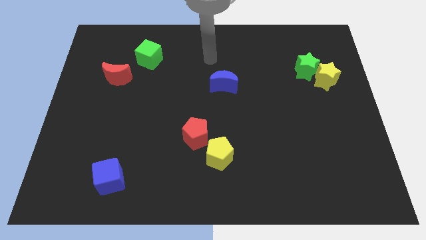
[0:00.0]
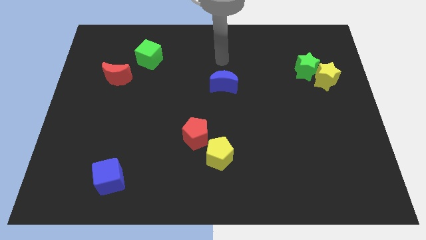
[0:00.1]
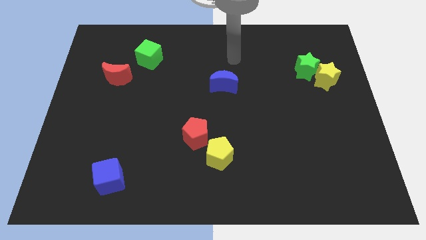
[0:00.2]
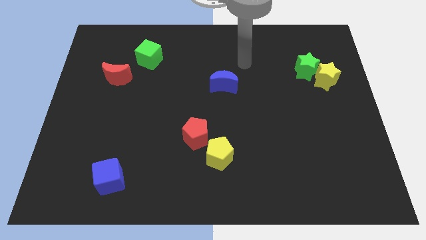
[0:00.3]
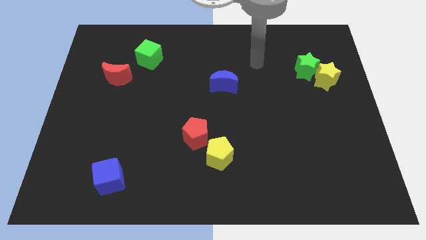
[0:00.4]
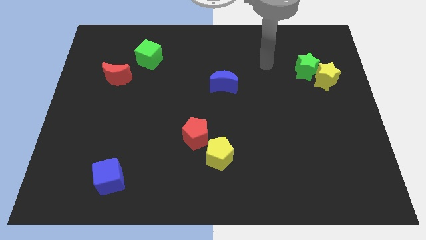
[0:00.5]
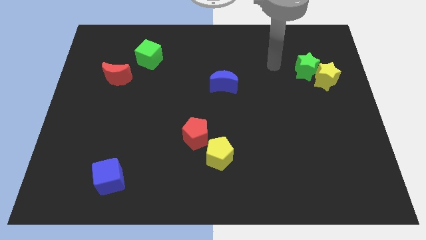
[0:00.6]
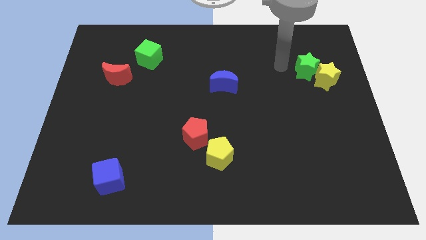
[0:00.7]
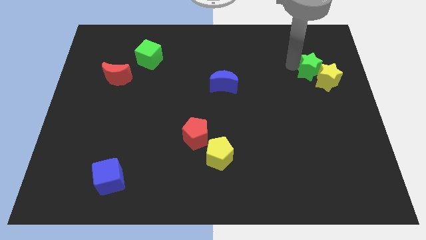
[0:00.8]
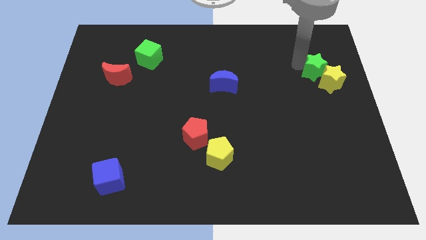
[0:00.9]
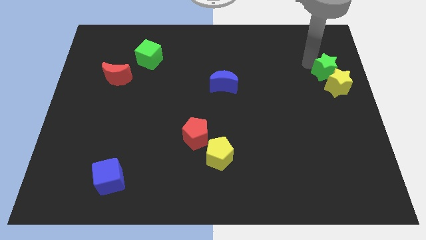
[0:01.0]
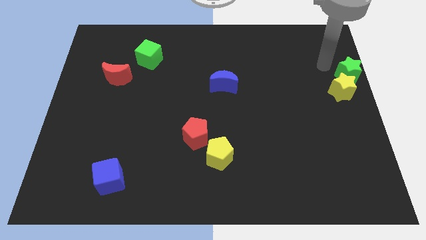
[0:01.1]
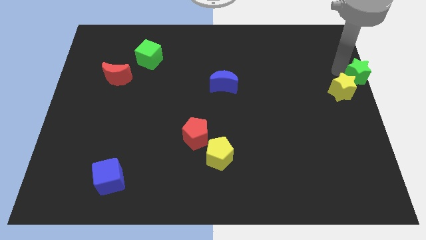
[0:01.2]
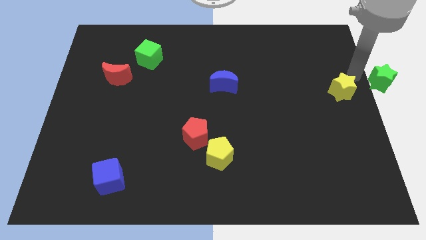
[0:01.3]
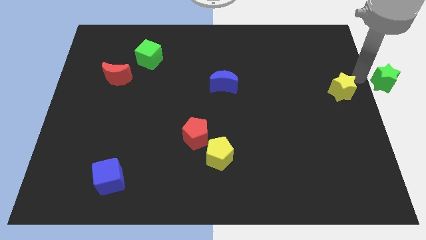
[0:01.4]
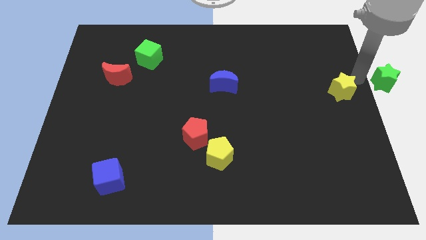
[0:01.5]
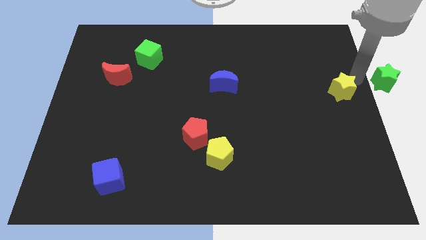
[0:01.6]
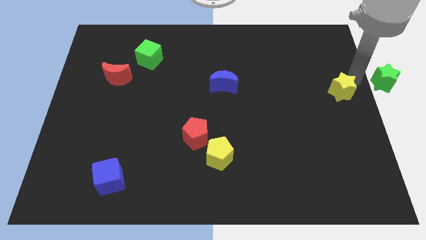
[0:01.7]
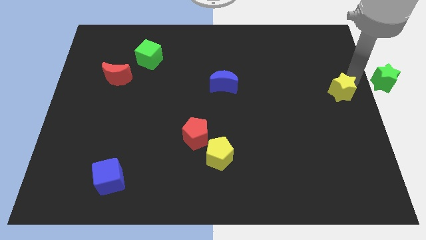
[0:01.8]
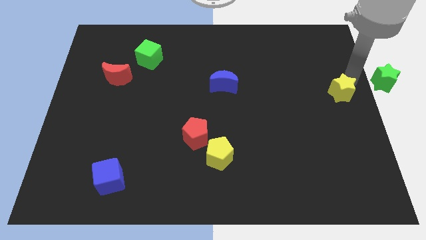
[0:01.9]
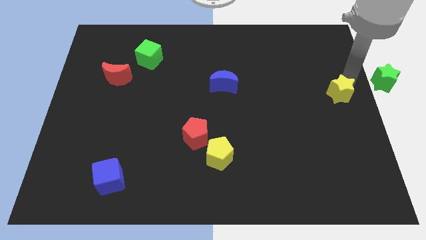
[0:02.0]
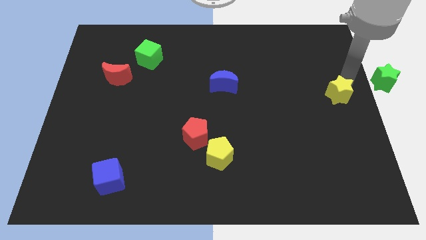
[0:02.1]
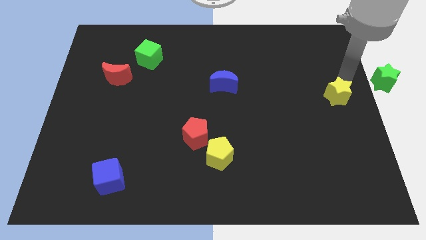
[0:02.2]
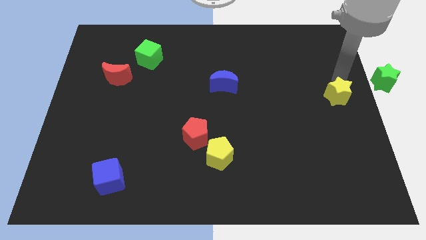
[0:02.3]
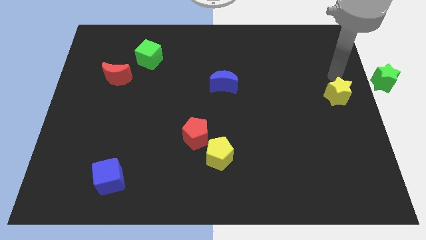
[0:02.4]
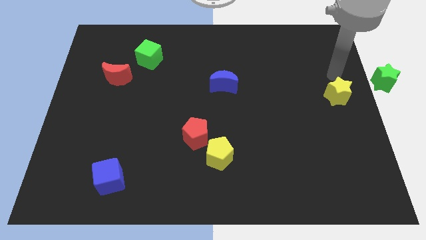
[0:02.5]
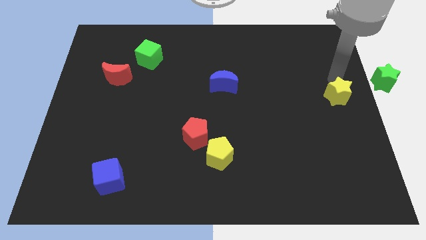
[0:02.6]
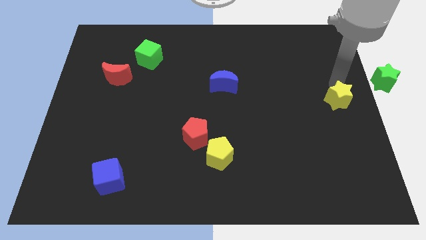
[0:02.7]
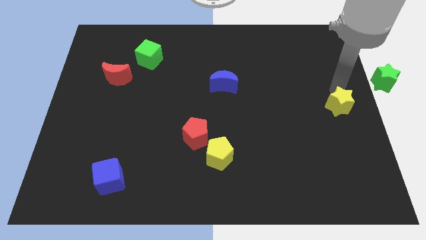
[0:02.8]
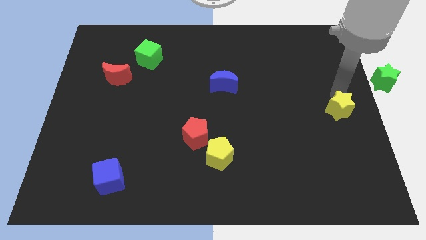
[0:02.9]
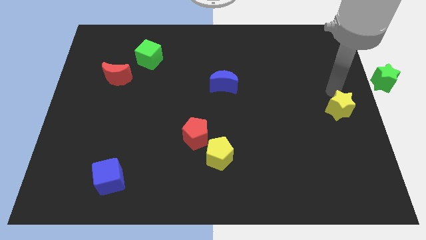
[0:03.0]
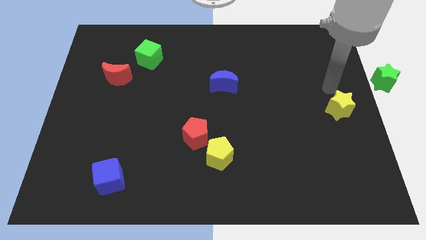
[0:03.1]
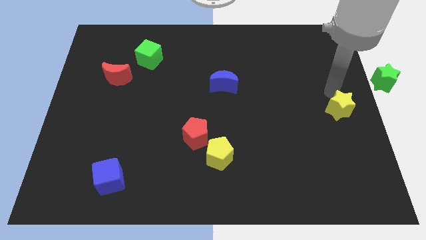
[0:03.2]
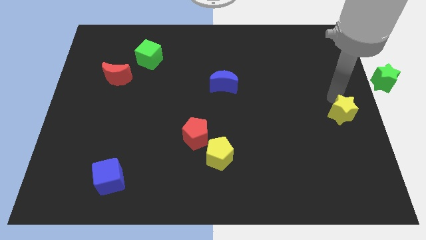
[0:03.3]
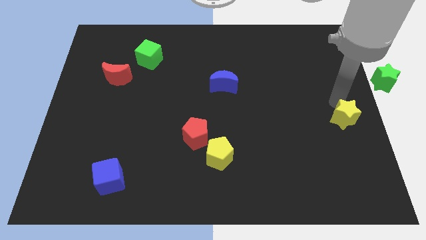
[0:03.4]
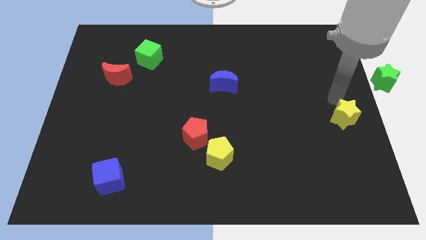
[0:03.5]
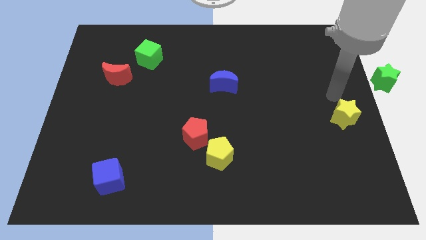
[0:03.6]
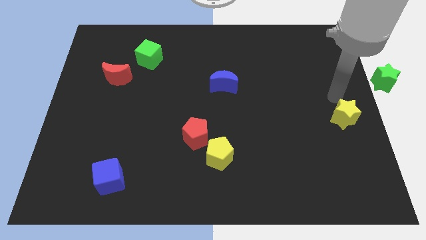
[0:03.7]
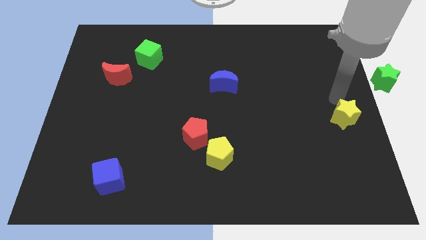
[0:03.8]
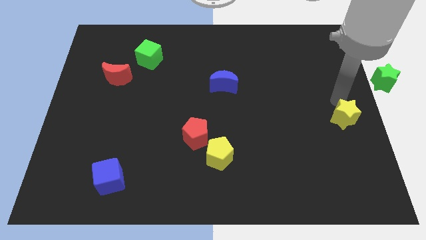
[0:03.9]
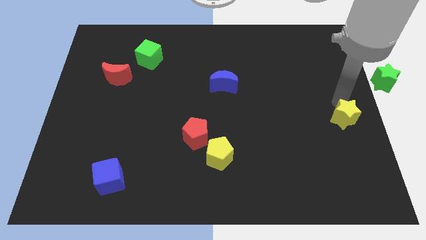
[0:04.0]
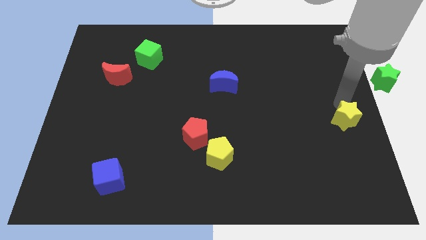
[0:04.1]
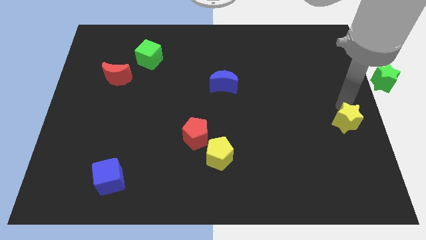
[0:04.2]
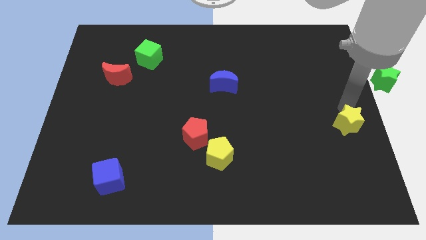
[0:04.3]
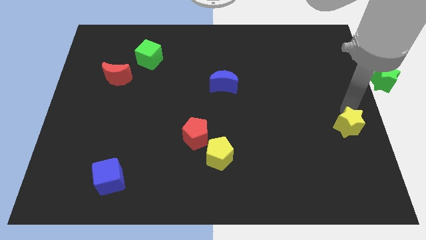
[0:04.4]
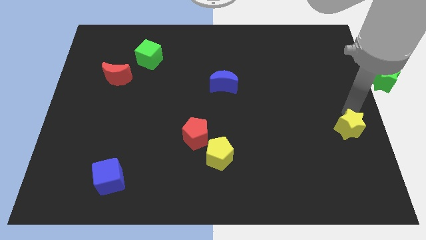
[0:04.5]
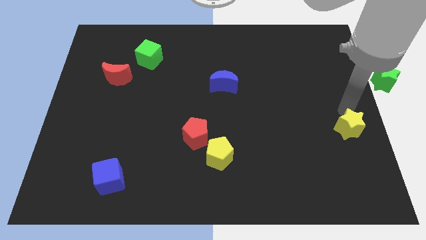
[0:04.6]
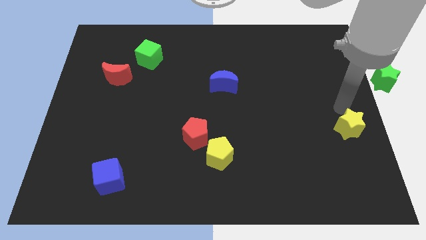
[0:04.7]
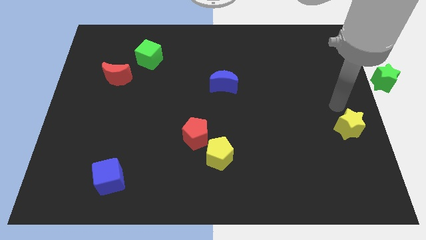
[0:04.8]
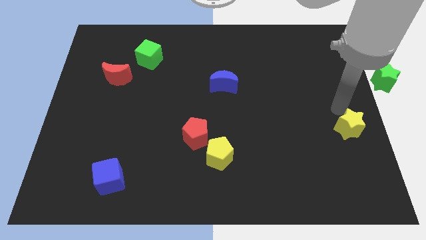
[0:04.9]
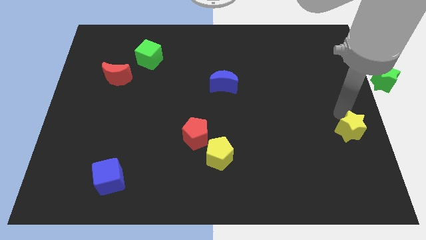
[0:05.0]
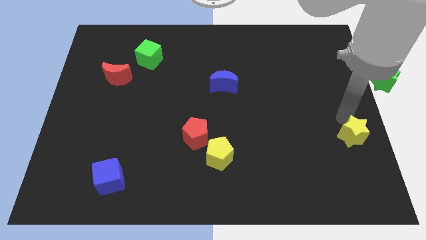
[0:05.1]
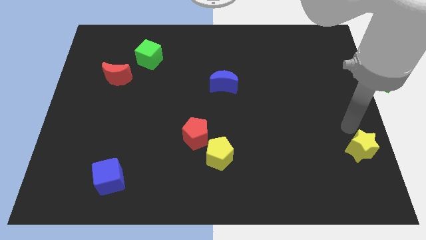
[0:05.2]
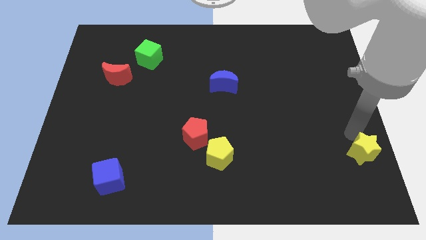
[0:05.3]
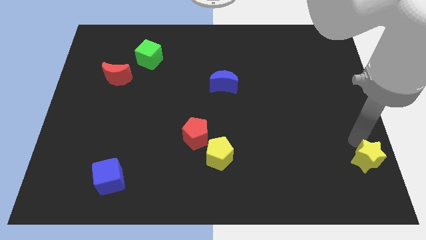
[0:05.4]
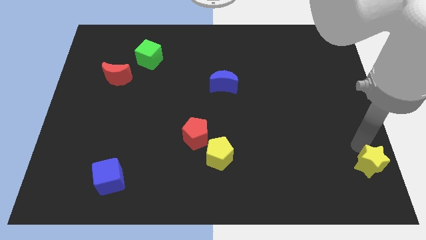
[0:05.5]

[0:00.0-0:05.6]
put the yellow star to the bottom right corner

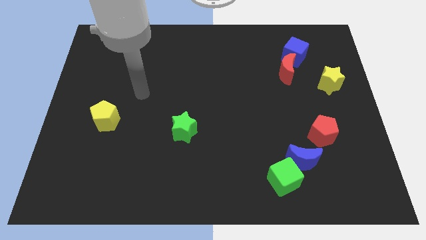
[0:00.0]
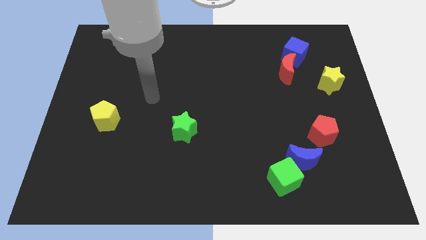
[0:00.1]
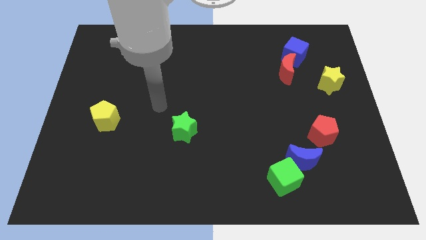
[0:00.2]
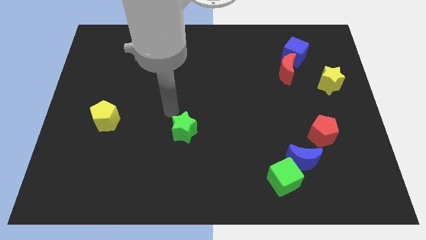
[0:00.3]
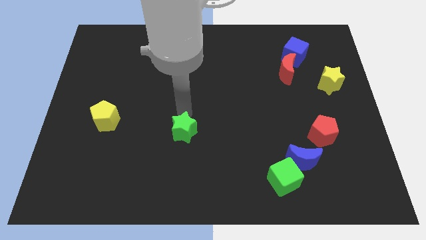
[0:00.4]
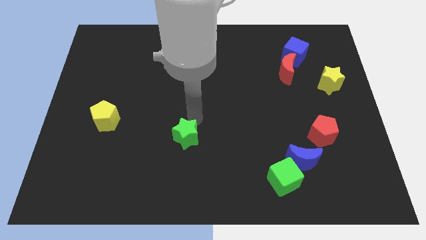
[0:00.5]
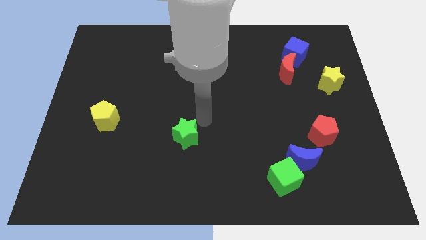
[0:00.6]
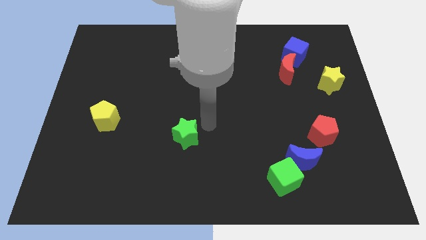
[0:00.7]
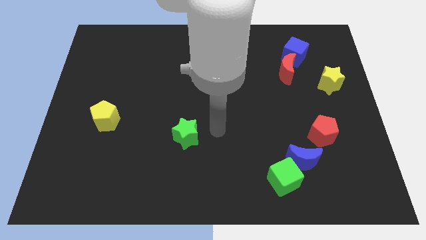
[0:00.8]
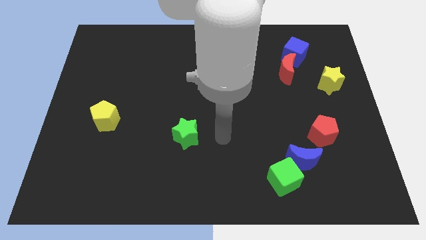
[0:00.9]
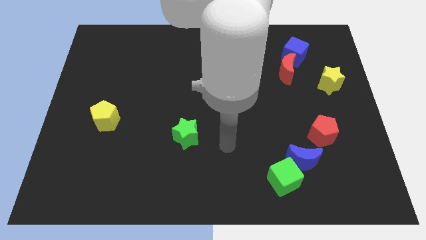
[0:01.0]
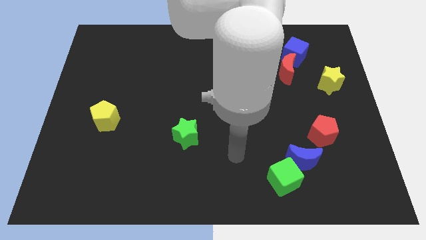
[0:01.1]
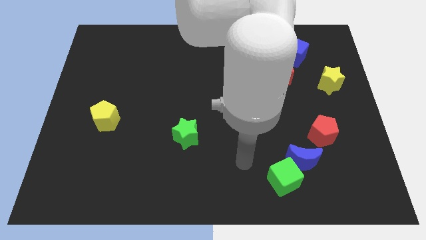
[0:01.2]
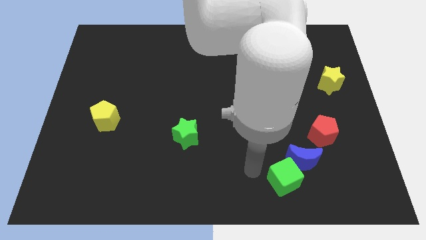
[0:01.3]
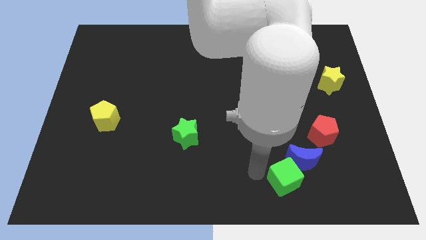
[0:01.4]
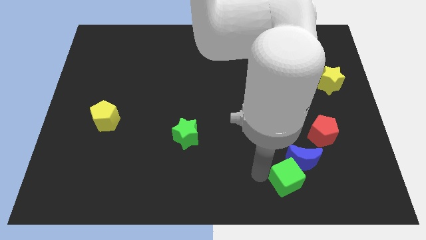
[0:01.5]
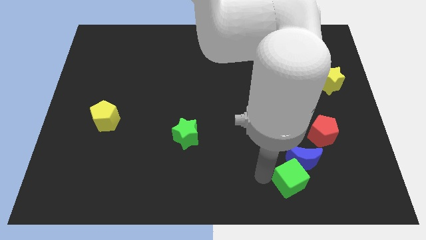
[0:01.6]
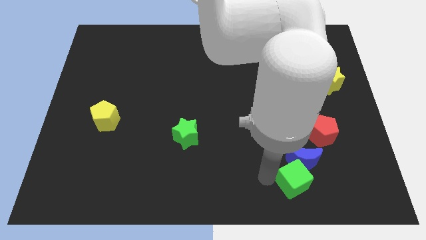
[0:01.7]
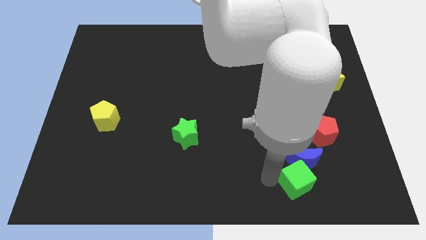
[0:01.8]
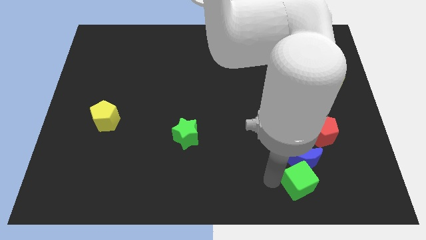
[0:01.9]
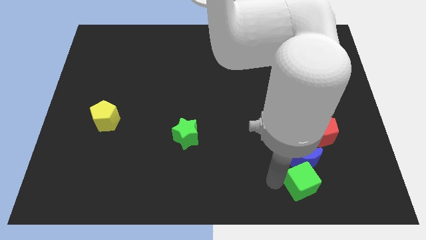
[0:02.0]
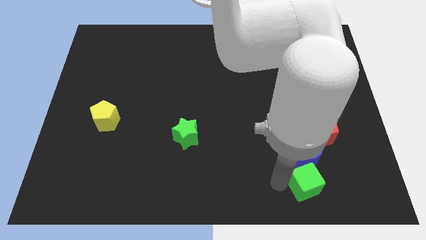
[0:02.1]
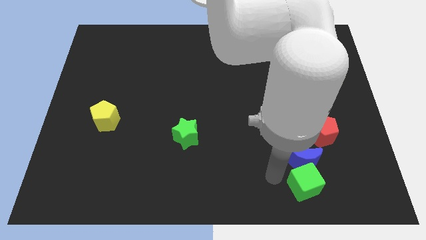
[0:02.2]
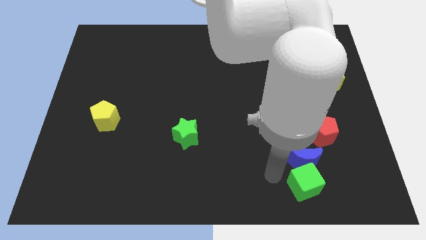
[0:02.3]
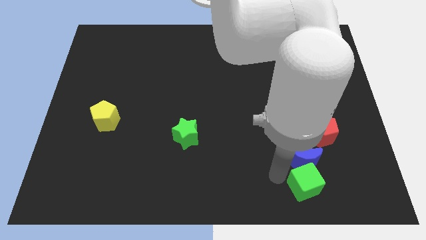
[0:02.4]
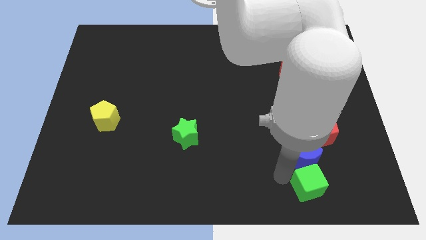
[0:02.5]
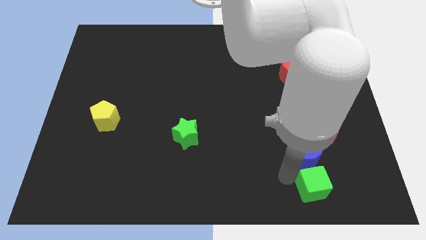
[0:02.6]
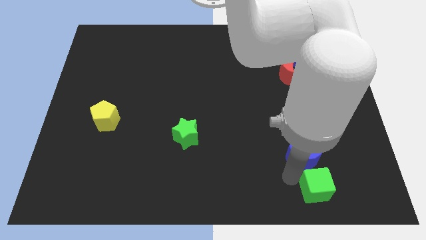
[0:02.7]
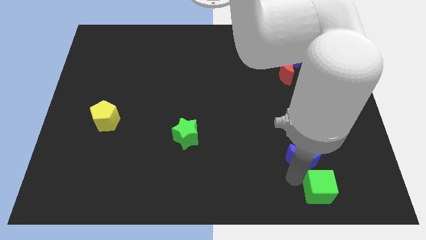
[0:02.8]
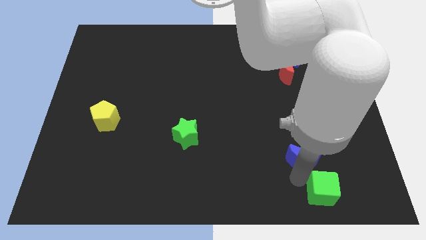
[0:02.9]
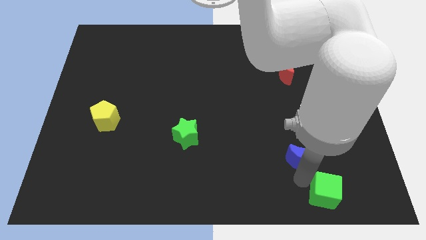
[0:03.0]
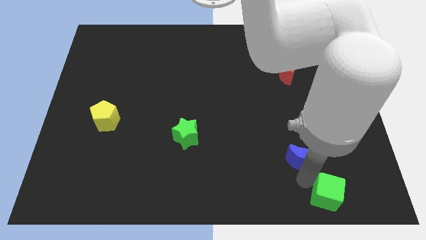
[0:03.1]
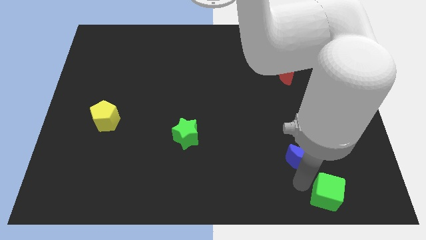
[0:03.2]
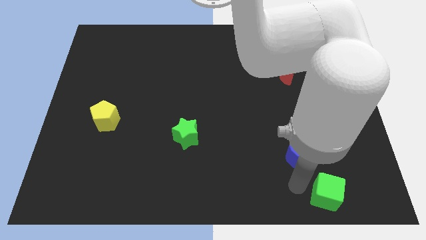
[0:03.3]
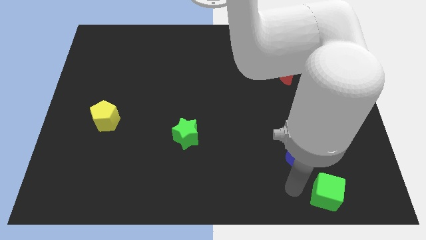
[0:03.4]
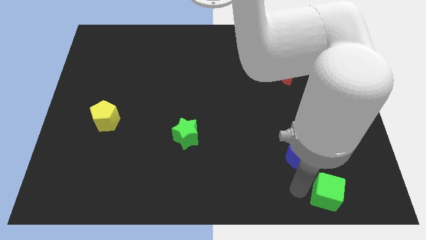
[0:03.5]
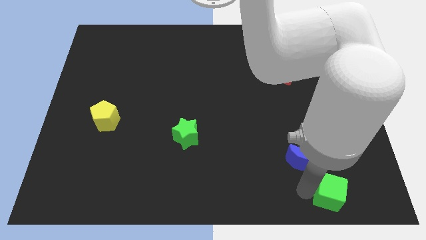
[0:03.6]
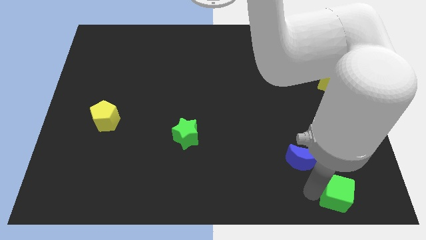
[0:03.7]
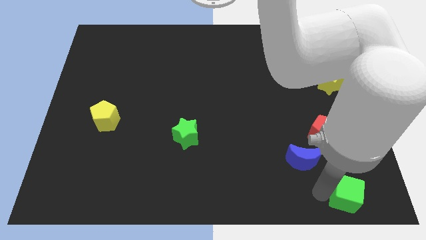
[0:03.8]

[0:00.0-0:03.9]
move the green cube to the bottom right
